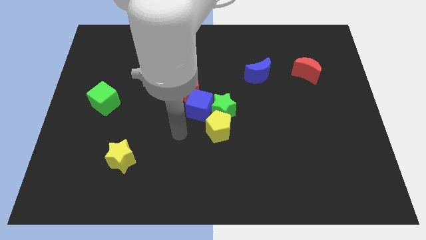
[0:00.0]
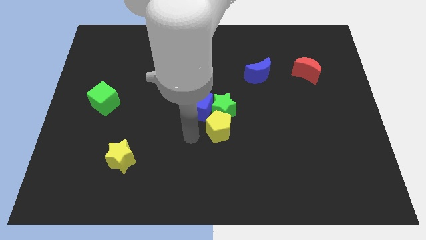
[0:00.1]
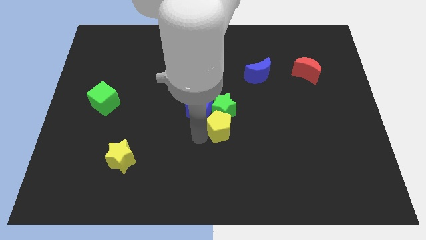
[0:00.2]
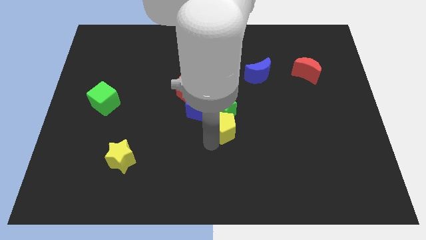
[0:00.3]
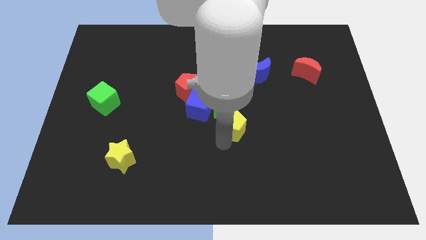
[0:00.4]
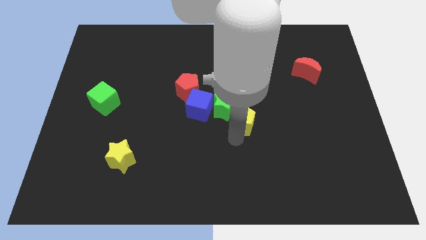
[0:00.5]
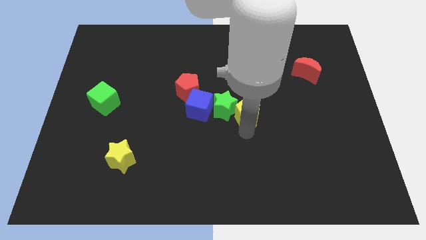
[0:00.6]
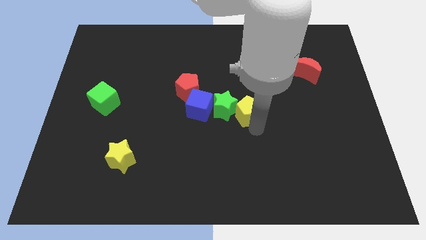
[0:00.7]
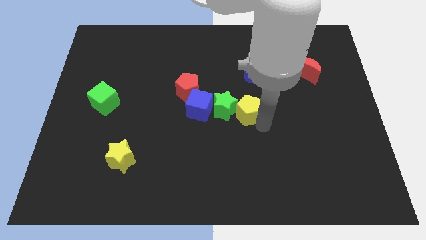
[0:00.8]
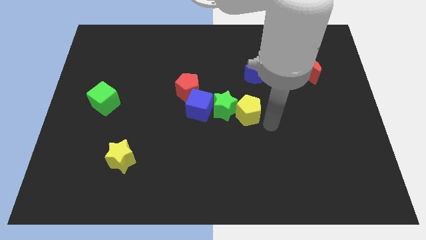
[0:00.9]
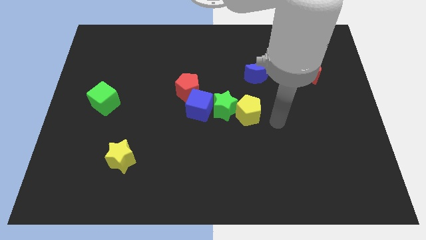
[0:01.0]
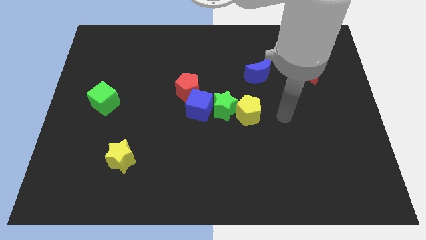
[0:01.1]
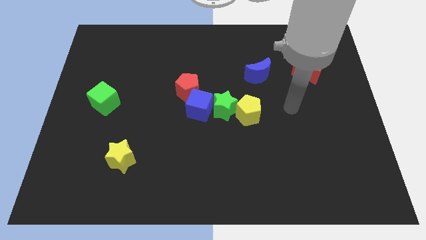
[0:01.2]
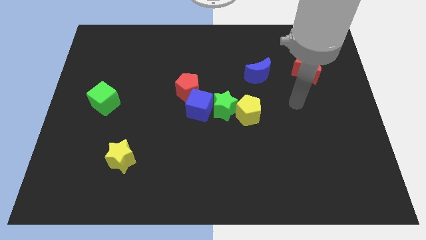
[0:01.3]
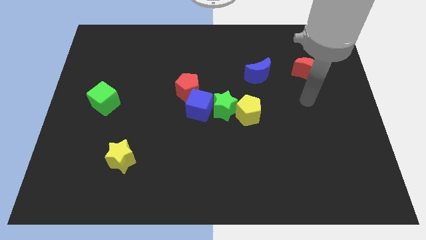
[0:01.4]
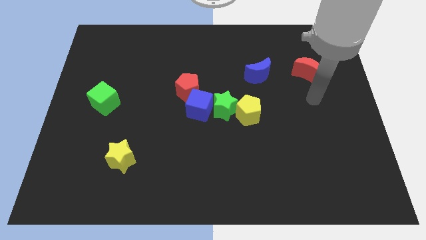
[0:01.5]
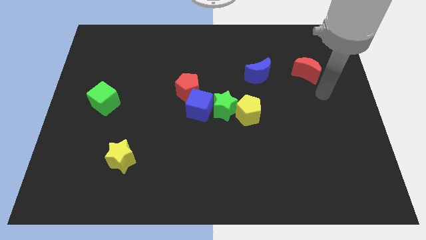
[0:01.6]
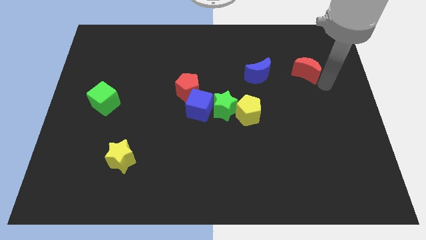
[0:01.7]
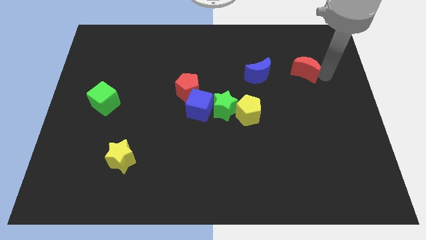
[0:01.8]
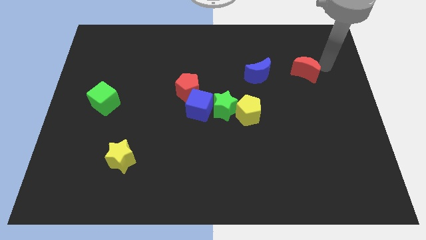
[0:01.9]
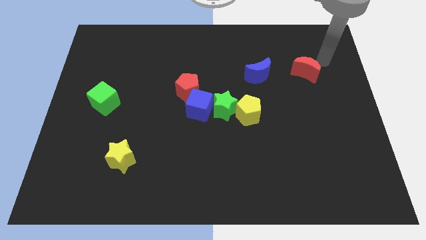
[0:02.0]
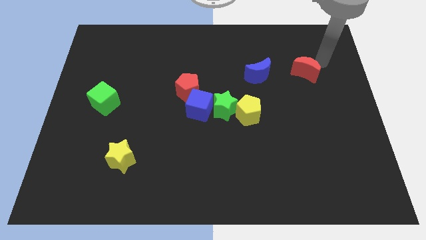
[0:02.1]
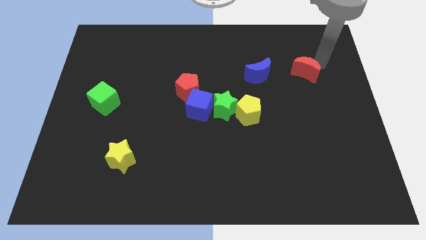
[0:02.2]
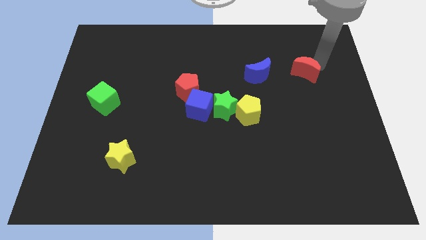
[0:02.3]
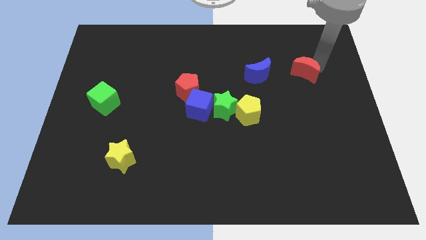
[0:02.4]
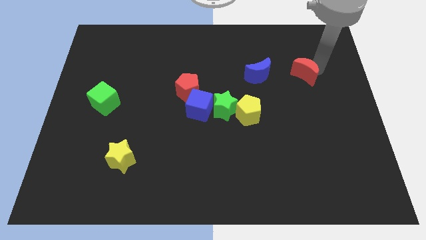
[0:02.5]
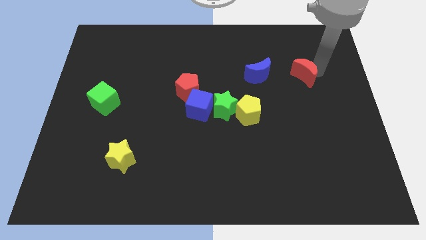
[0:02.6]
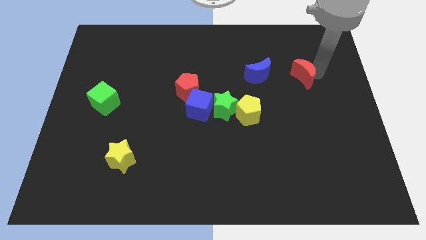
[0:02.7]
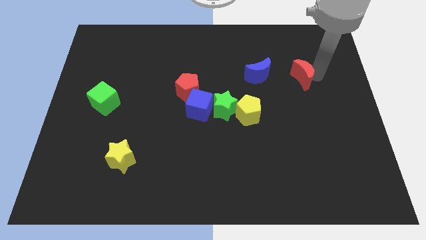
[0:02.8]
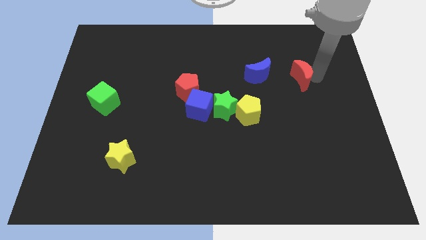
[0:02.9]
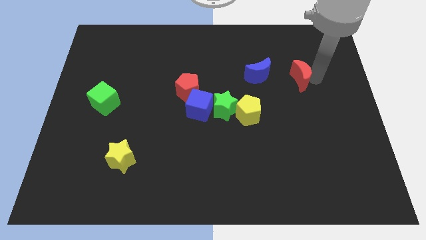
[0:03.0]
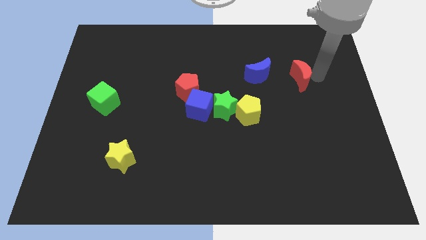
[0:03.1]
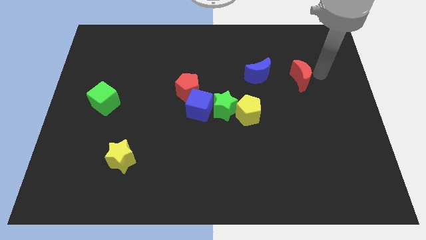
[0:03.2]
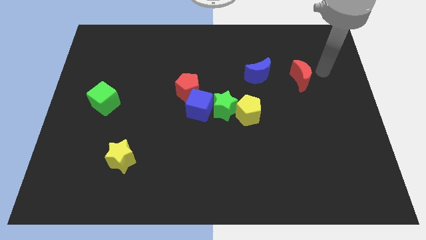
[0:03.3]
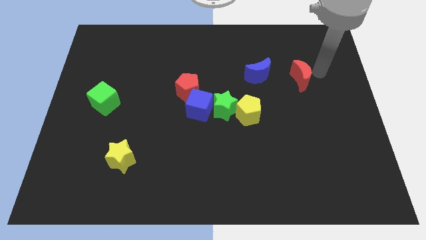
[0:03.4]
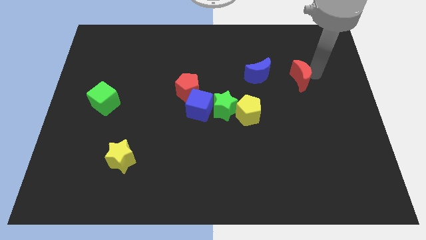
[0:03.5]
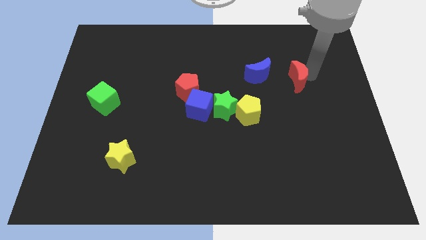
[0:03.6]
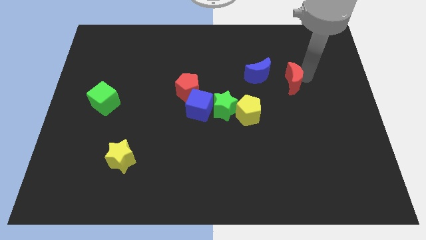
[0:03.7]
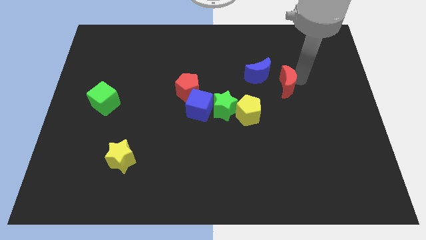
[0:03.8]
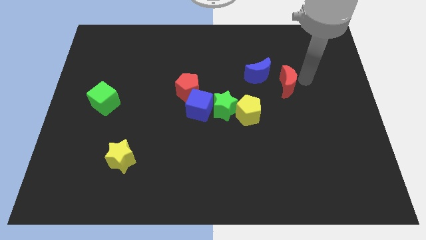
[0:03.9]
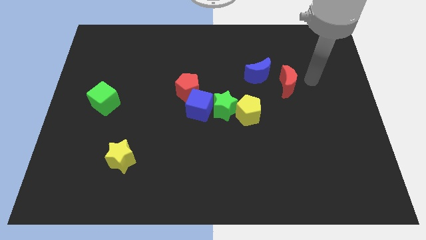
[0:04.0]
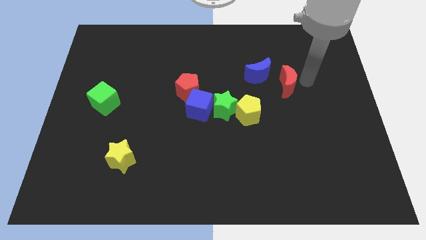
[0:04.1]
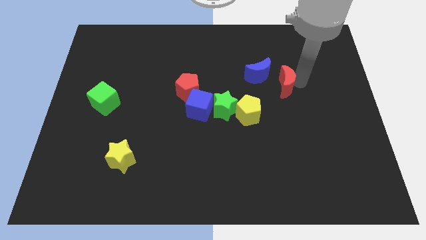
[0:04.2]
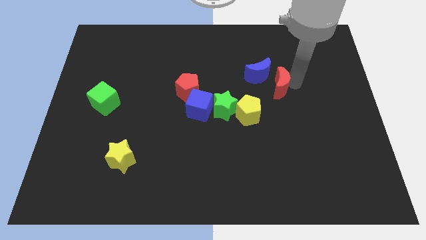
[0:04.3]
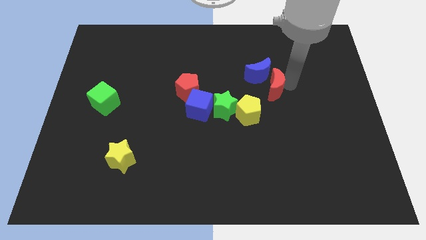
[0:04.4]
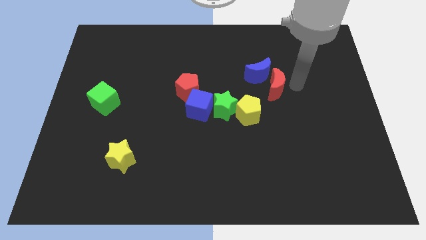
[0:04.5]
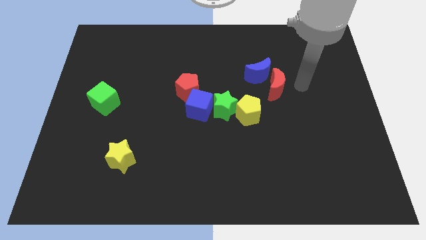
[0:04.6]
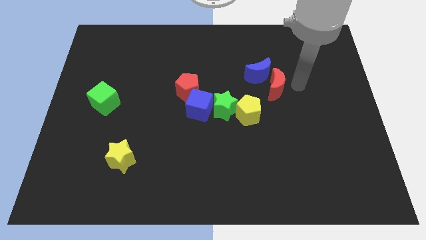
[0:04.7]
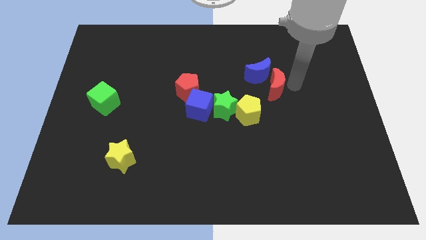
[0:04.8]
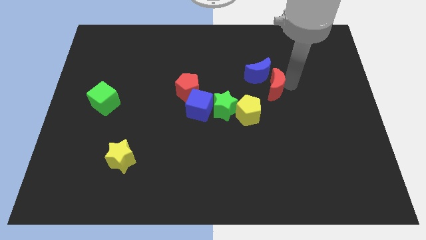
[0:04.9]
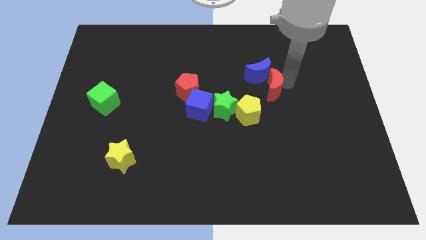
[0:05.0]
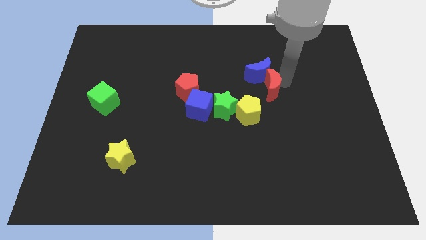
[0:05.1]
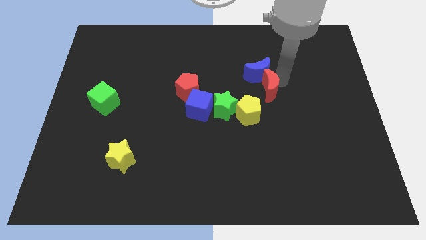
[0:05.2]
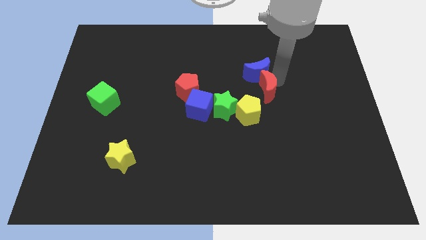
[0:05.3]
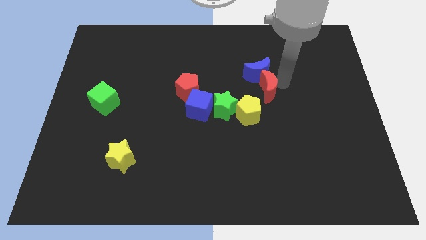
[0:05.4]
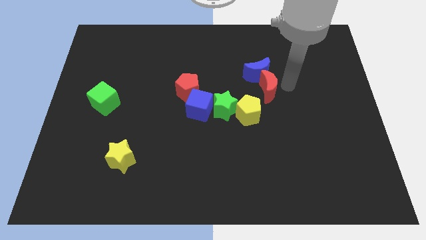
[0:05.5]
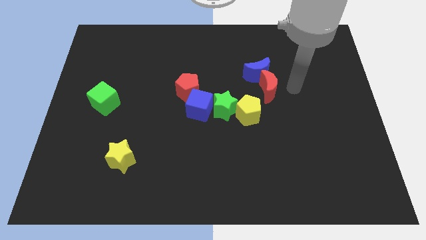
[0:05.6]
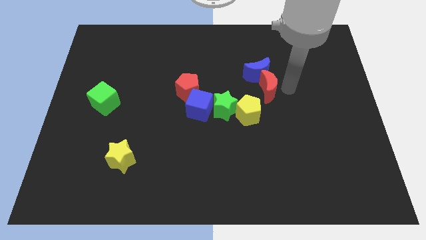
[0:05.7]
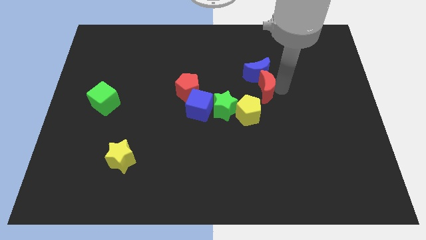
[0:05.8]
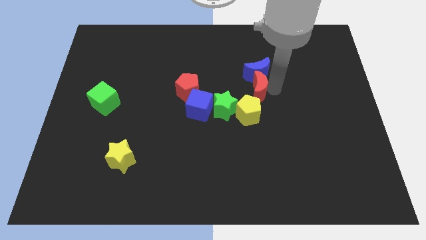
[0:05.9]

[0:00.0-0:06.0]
move the red moon to the bottom left of the blue moon
